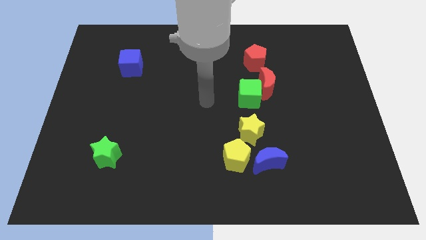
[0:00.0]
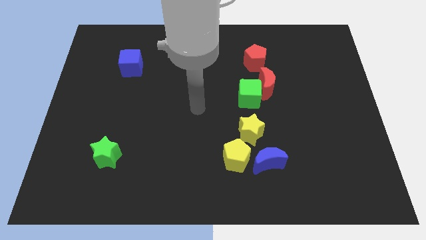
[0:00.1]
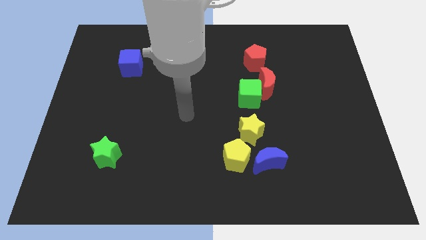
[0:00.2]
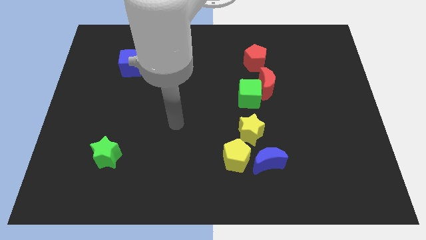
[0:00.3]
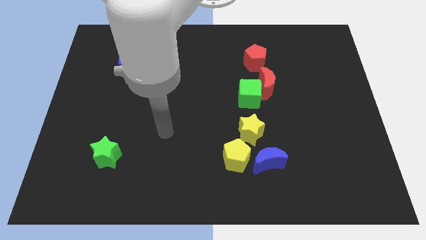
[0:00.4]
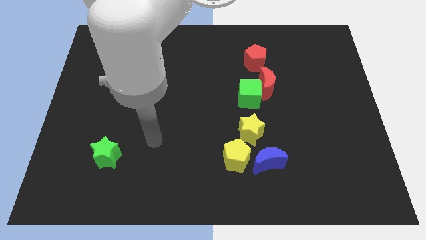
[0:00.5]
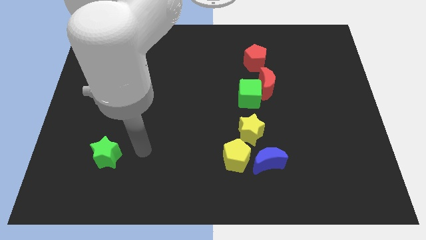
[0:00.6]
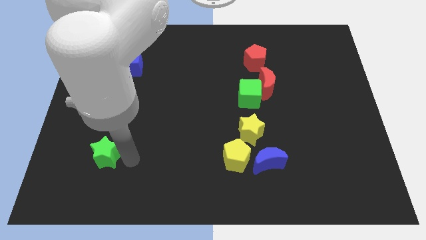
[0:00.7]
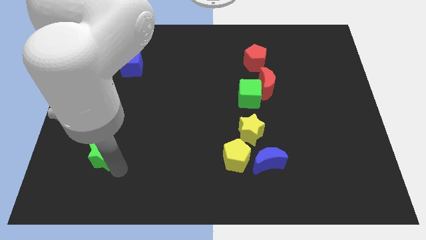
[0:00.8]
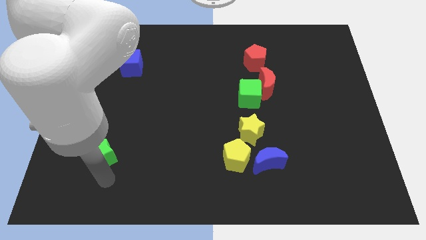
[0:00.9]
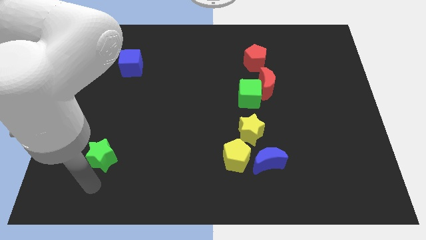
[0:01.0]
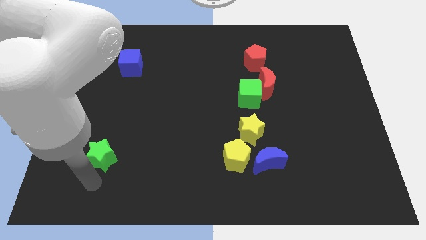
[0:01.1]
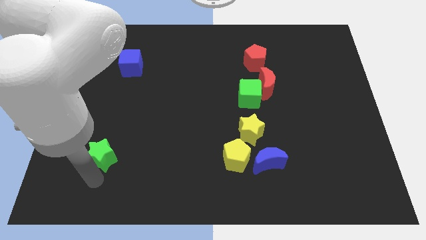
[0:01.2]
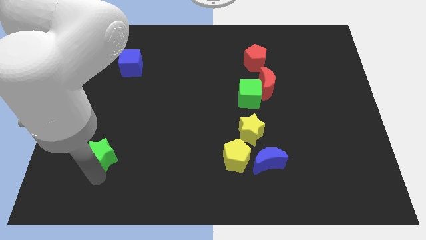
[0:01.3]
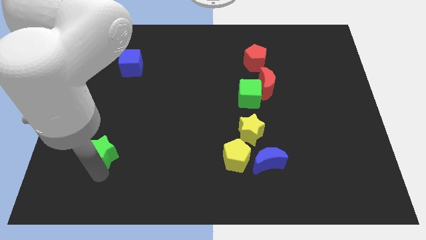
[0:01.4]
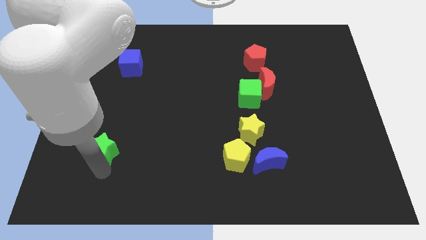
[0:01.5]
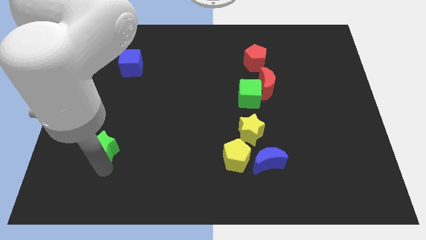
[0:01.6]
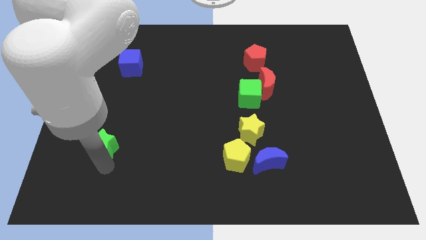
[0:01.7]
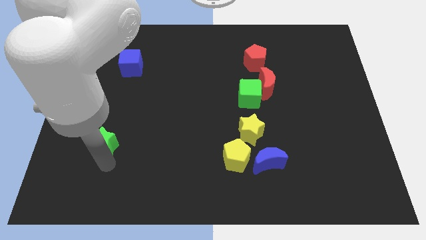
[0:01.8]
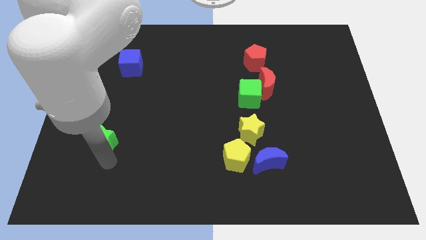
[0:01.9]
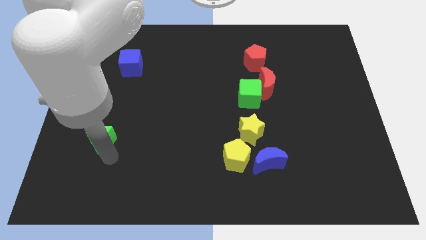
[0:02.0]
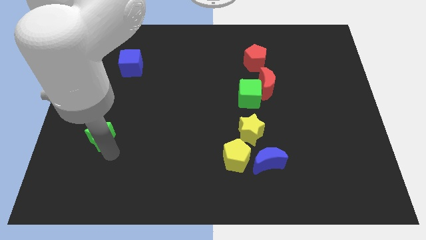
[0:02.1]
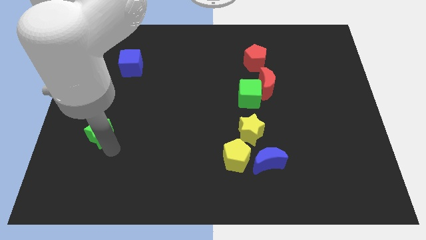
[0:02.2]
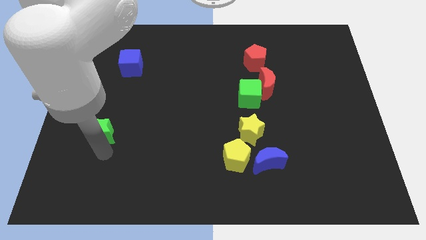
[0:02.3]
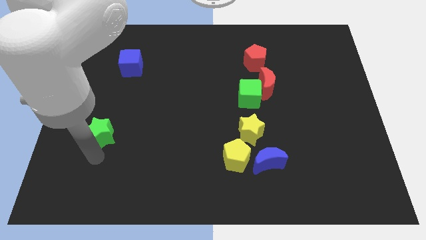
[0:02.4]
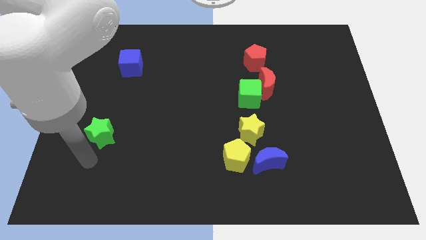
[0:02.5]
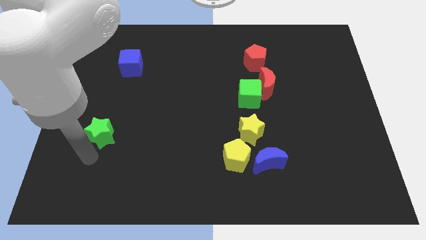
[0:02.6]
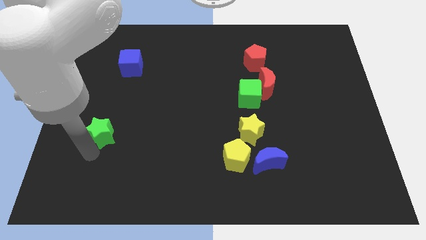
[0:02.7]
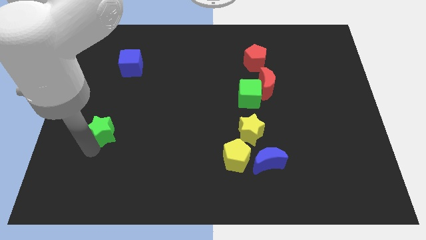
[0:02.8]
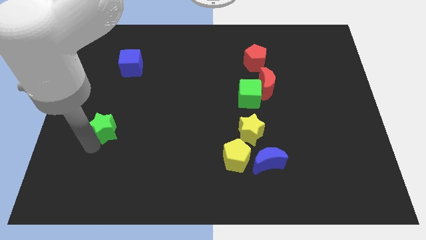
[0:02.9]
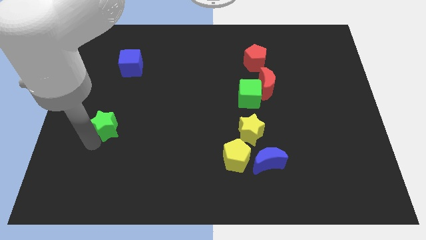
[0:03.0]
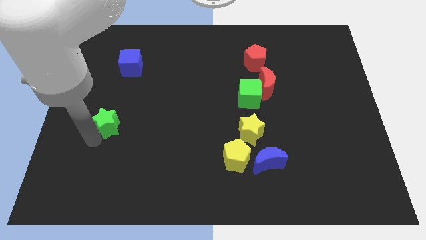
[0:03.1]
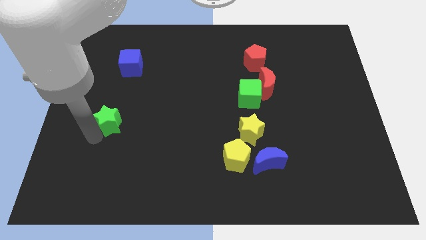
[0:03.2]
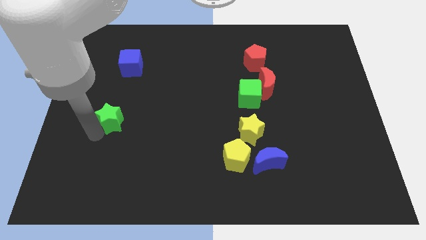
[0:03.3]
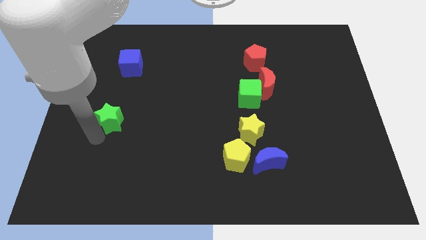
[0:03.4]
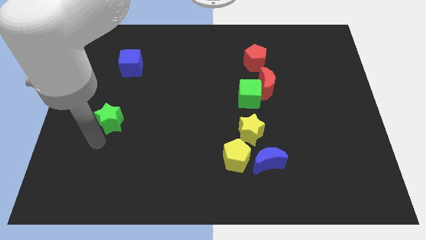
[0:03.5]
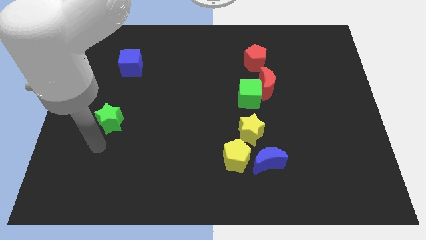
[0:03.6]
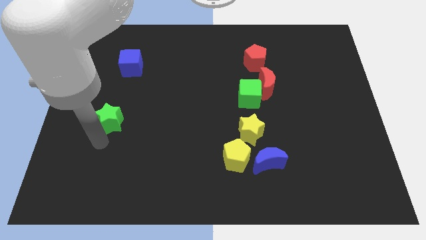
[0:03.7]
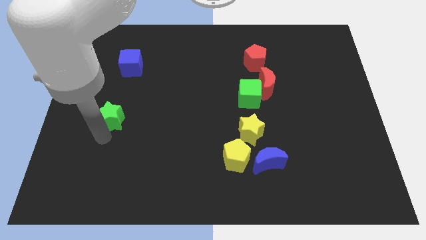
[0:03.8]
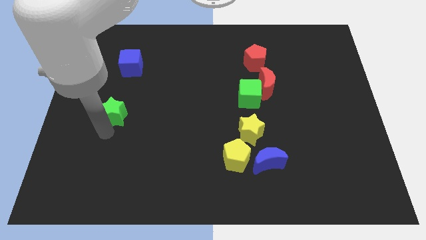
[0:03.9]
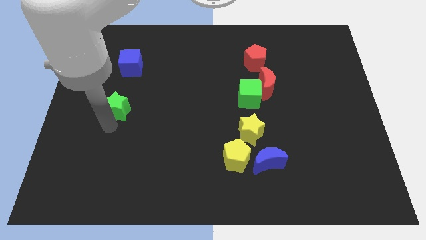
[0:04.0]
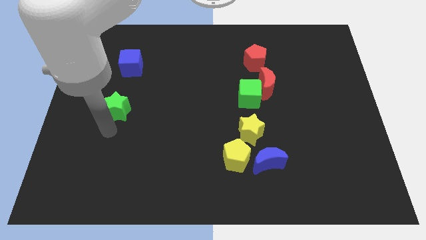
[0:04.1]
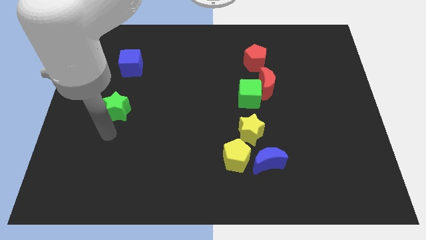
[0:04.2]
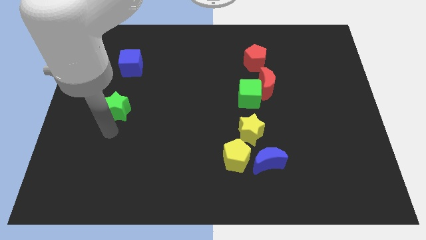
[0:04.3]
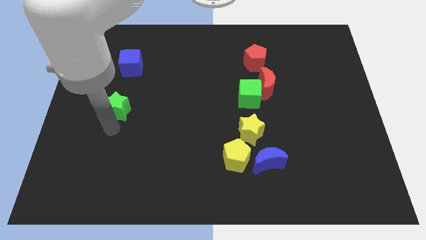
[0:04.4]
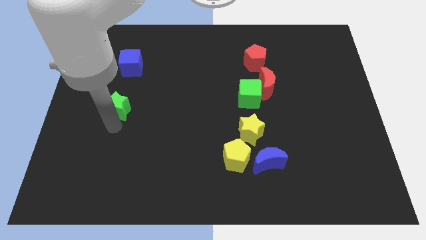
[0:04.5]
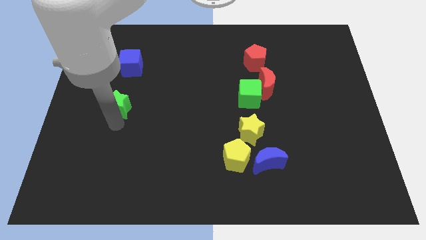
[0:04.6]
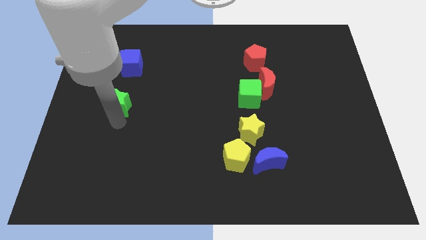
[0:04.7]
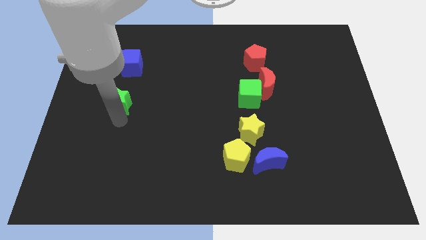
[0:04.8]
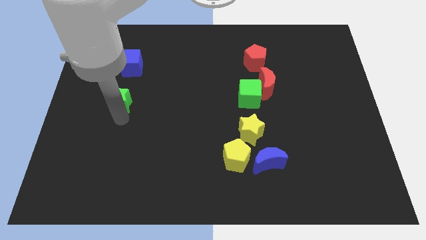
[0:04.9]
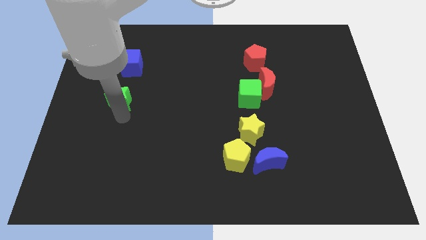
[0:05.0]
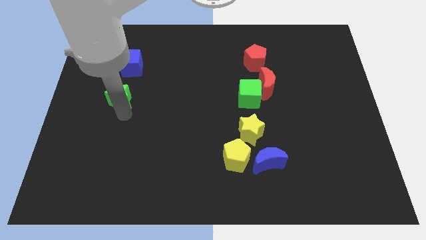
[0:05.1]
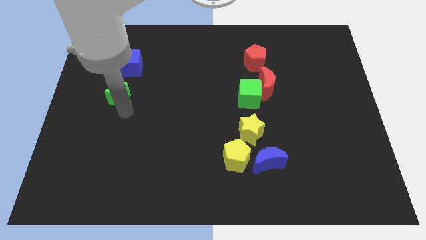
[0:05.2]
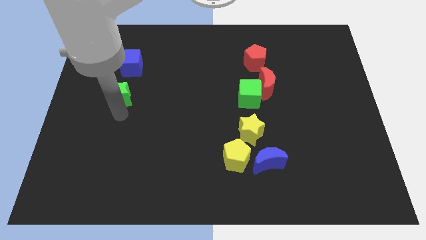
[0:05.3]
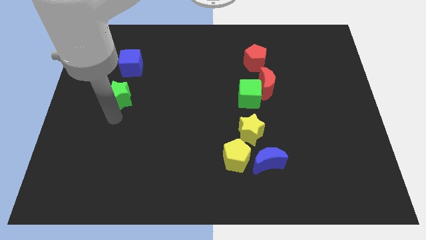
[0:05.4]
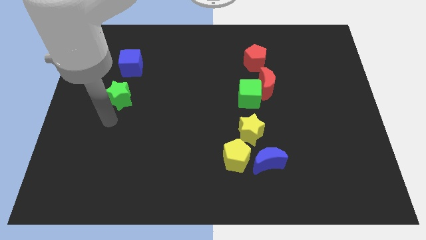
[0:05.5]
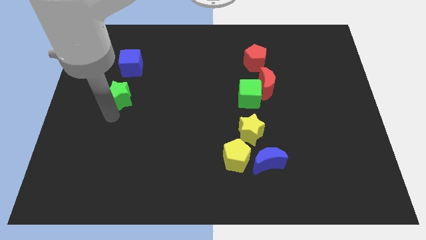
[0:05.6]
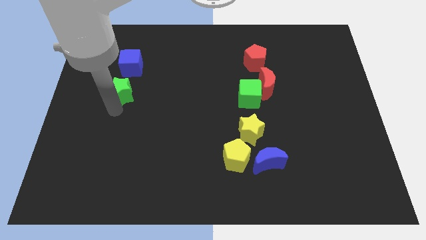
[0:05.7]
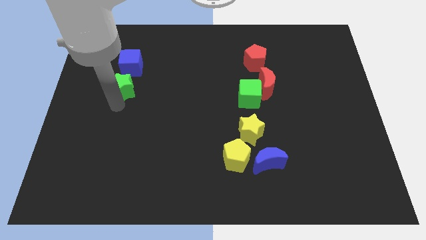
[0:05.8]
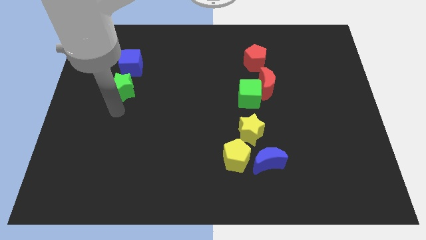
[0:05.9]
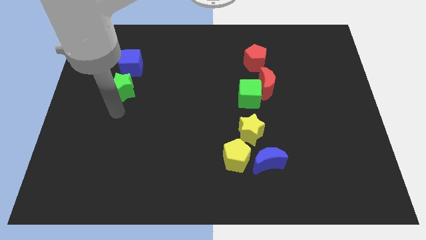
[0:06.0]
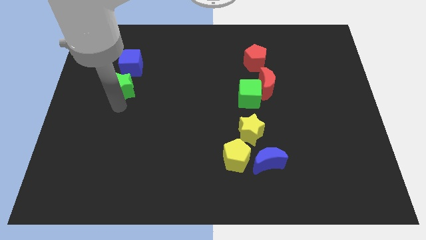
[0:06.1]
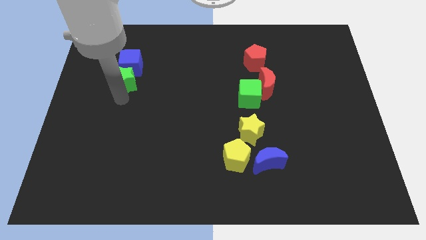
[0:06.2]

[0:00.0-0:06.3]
put the green star towards the blue cube
